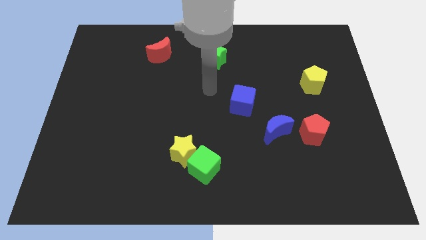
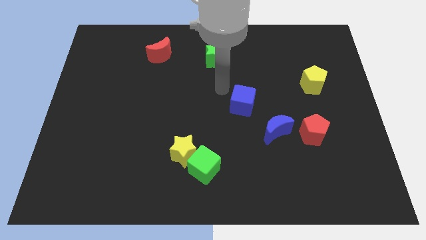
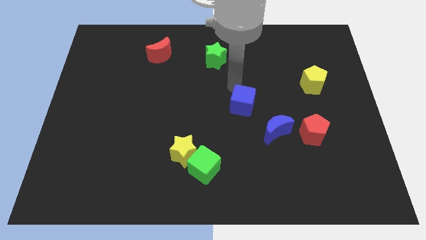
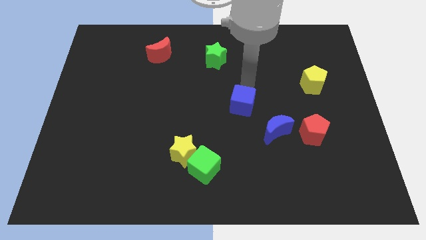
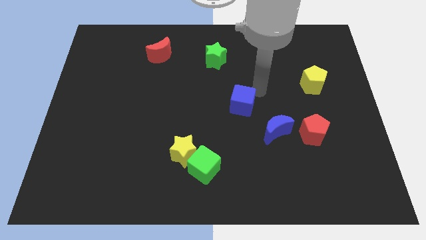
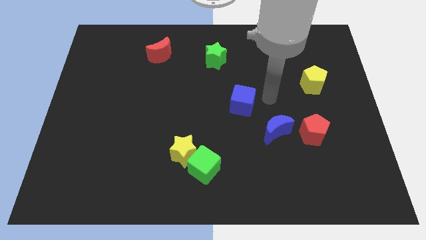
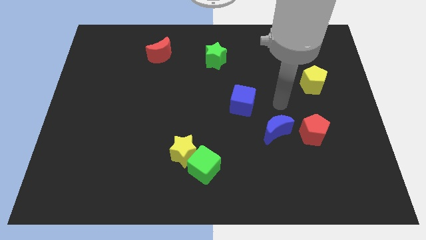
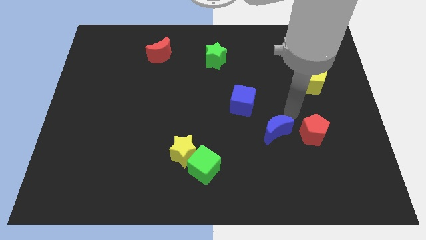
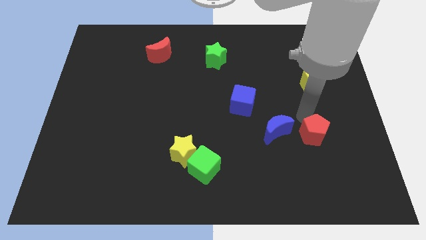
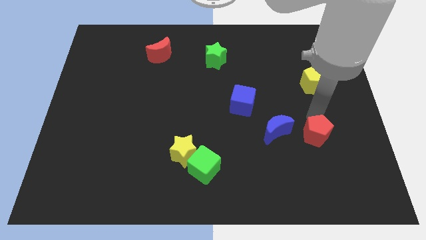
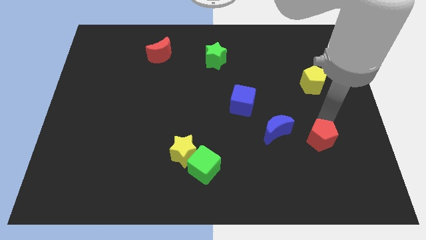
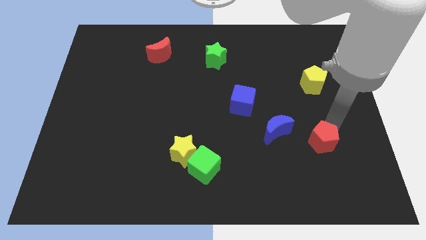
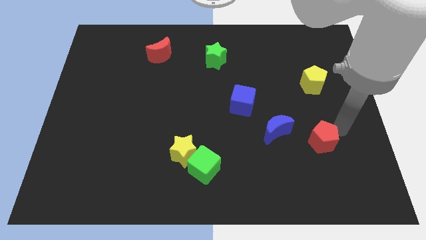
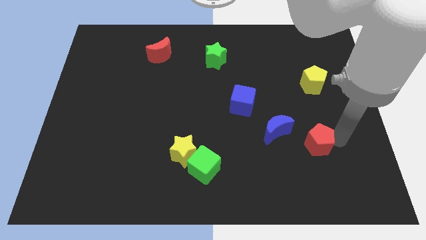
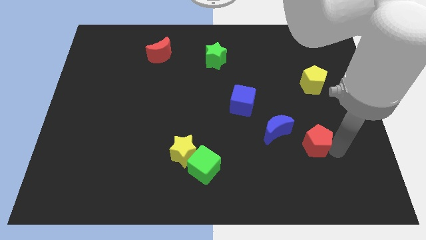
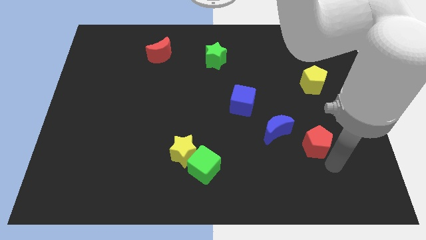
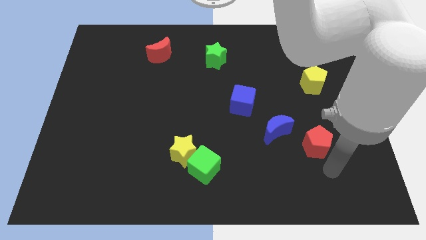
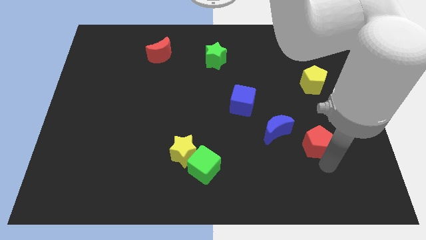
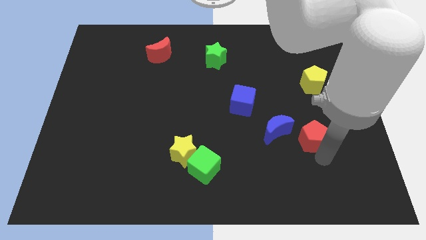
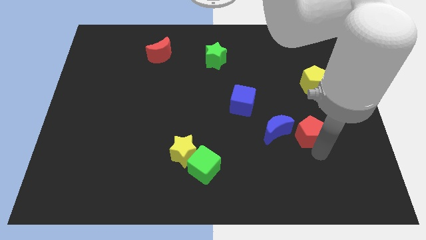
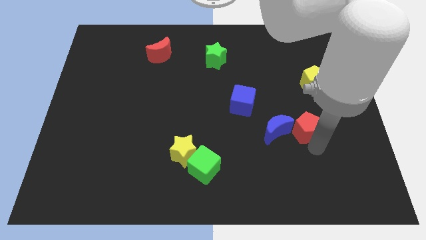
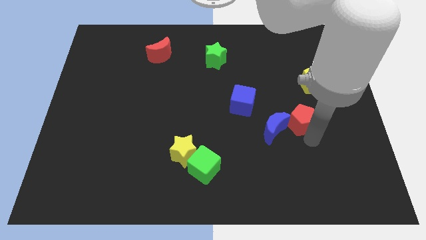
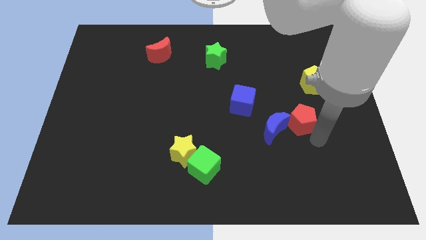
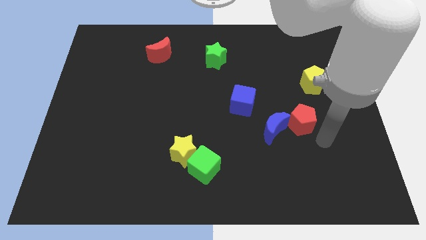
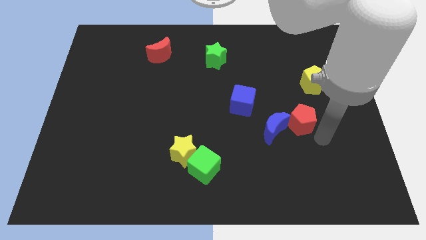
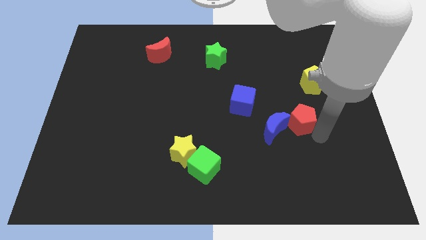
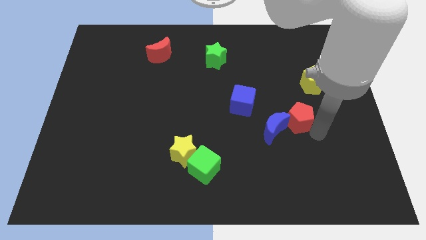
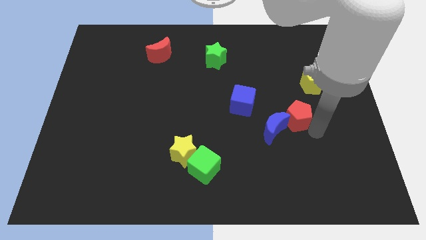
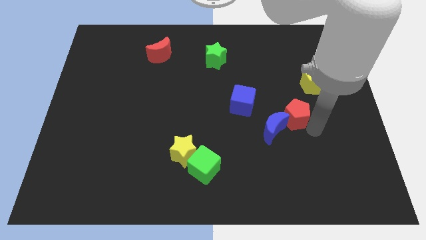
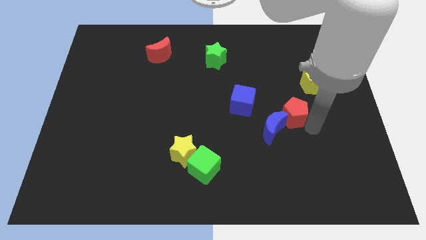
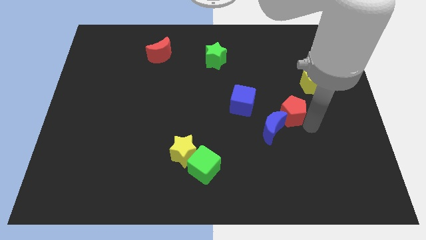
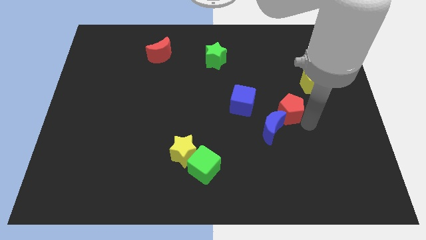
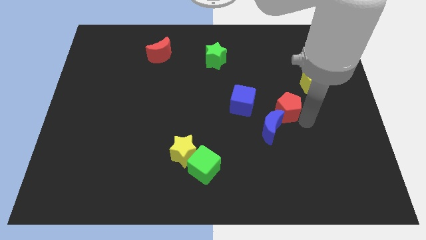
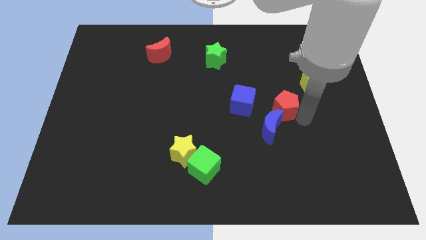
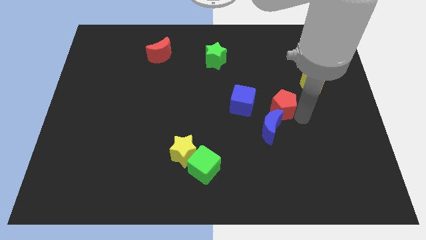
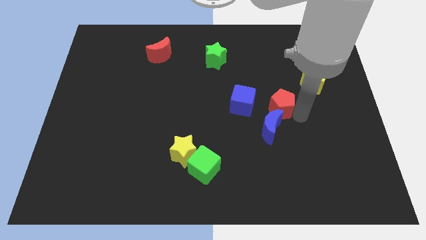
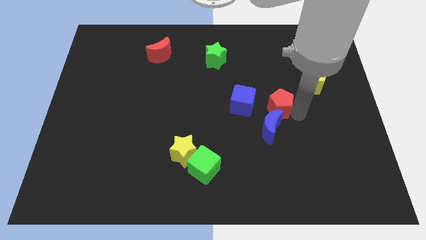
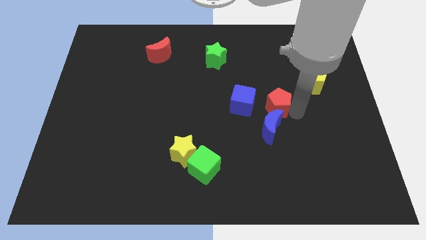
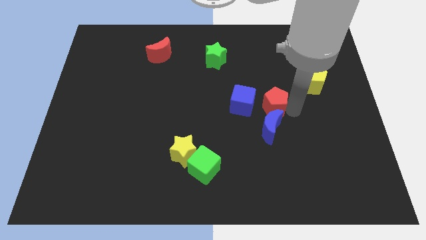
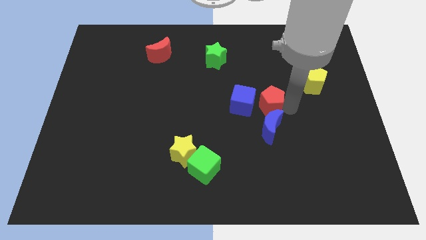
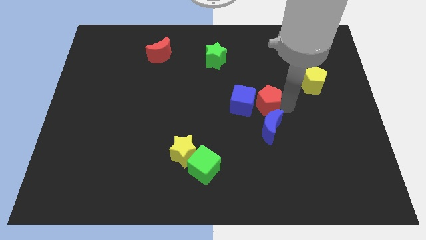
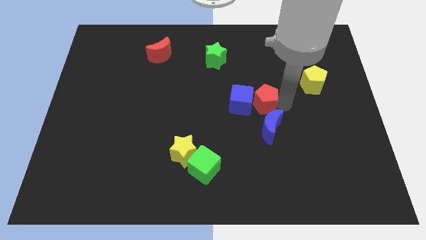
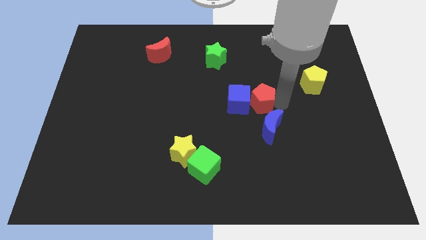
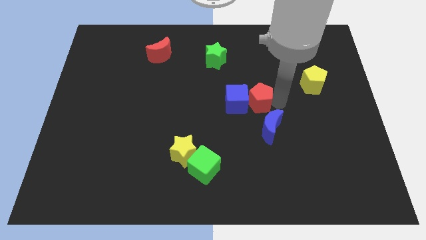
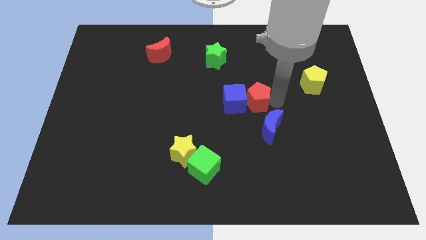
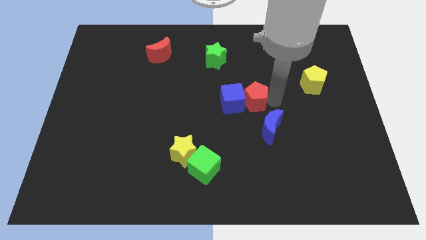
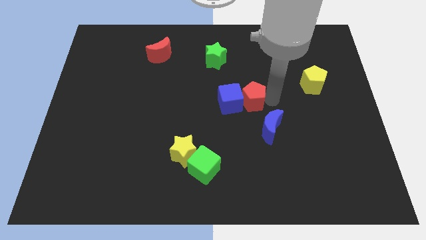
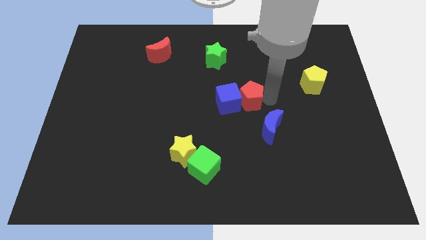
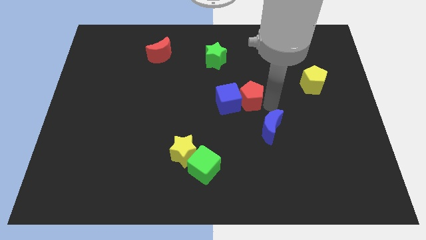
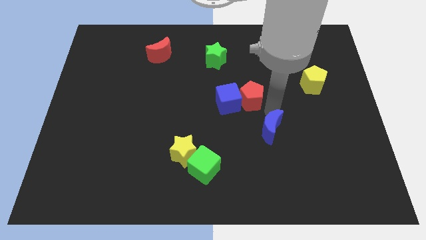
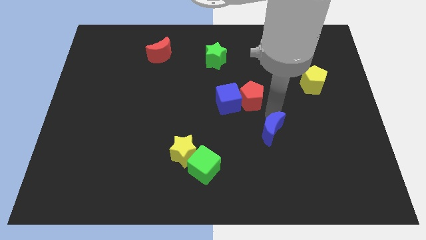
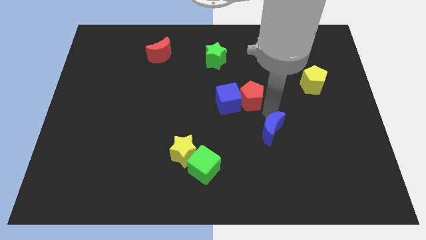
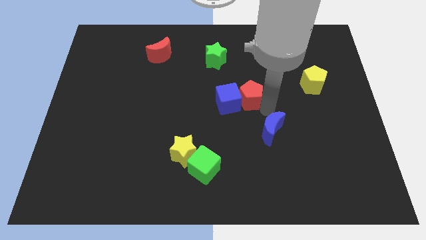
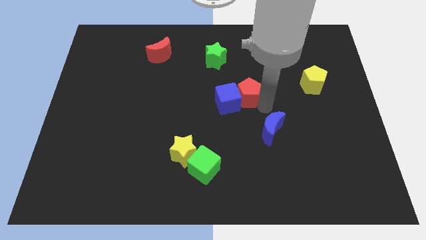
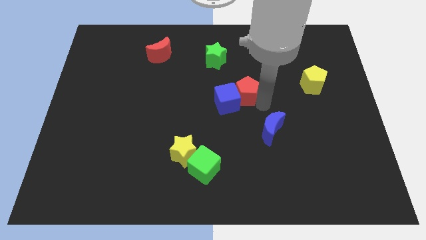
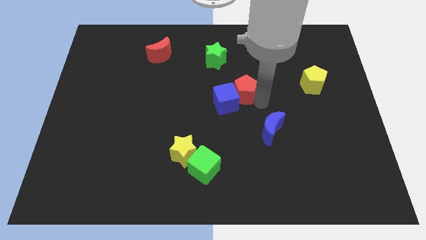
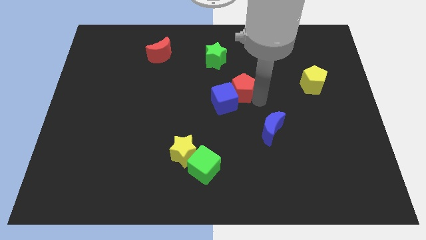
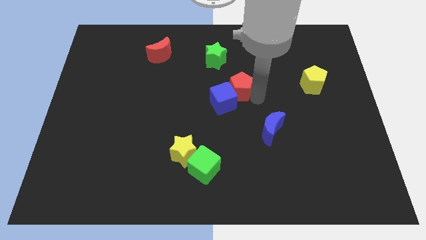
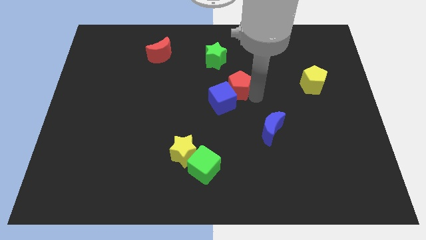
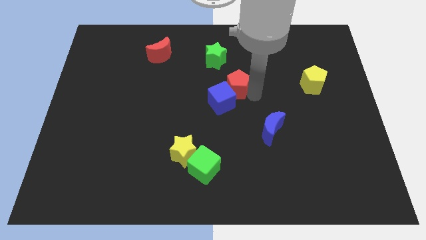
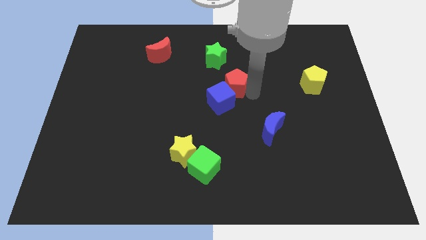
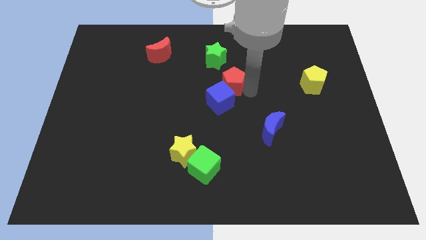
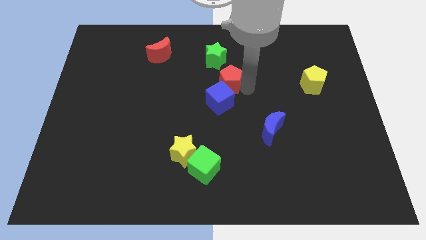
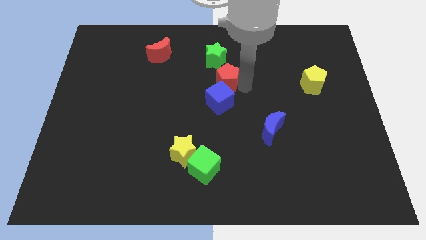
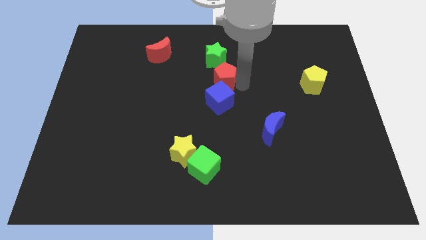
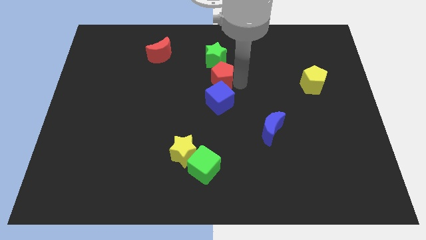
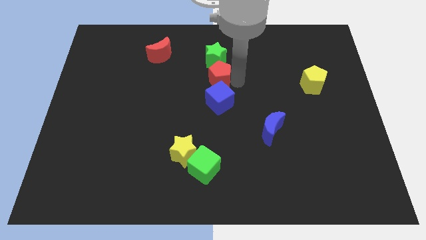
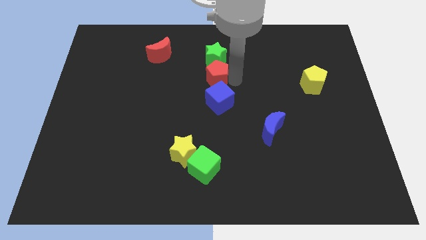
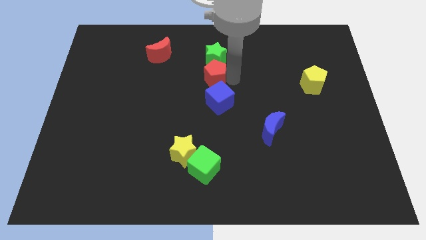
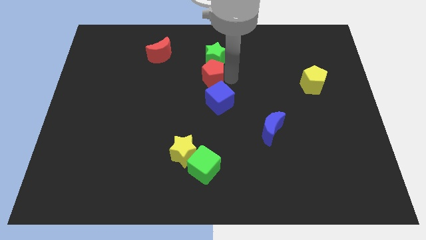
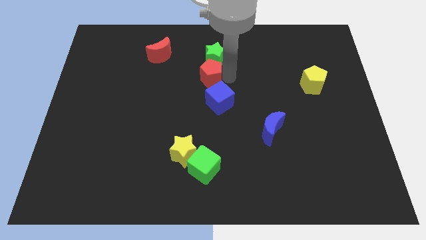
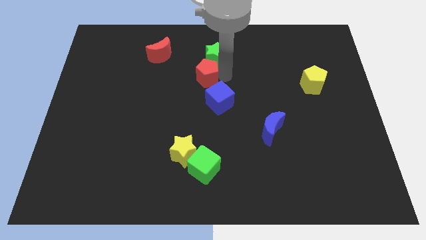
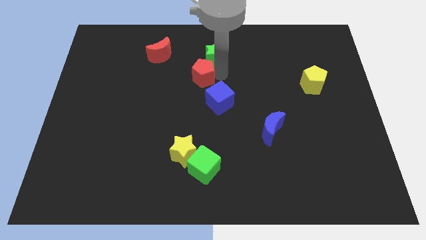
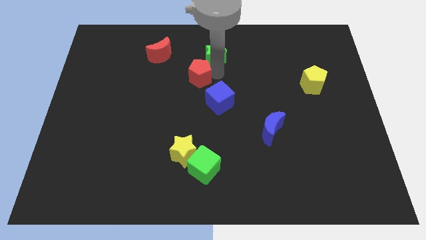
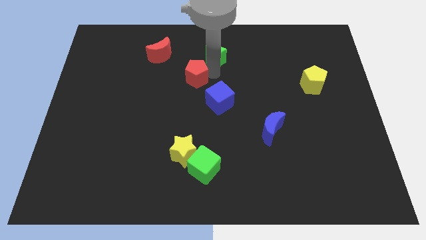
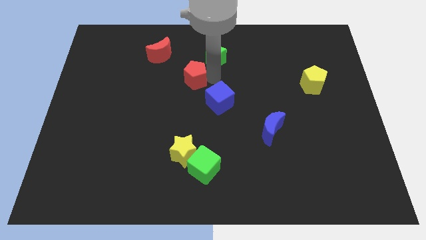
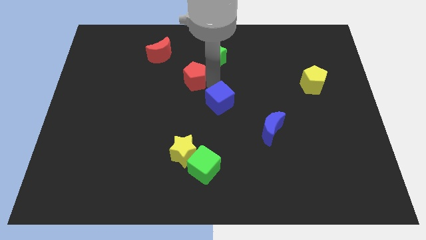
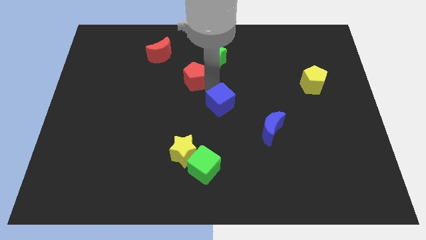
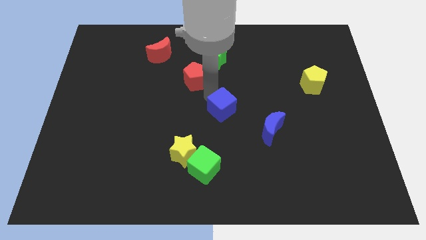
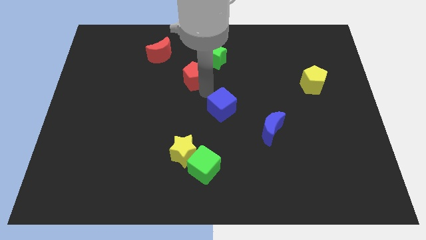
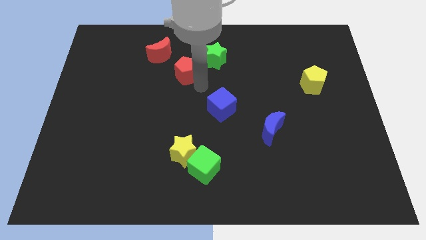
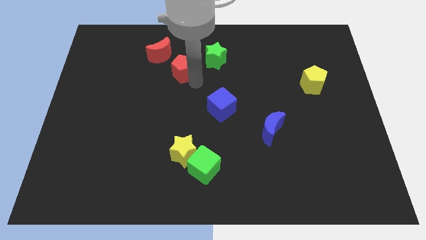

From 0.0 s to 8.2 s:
slide the red pentagon to the left side of the green star
